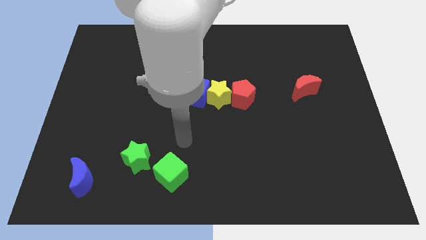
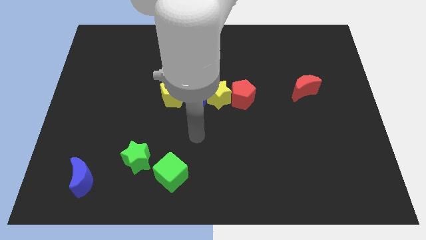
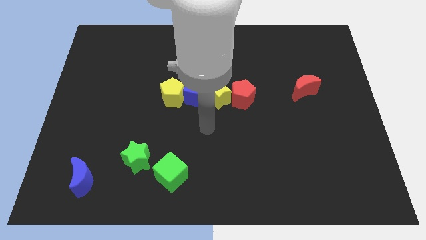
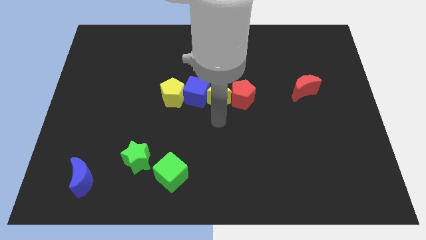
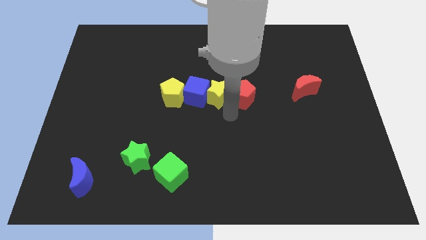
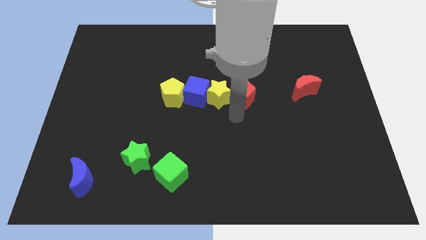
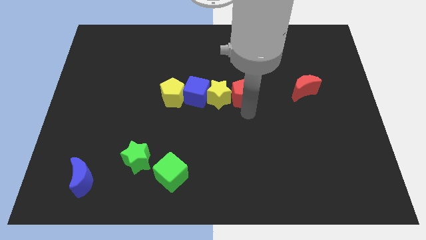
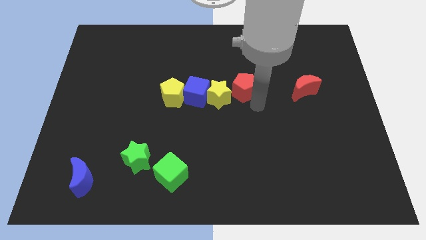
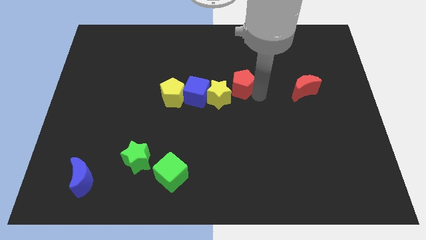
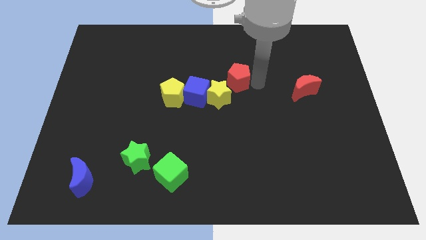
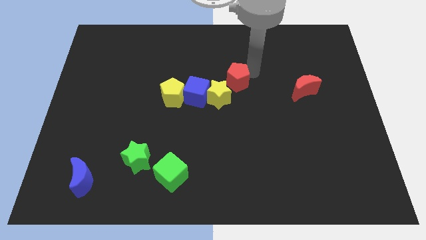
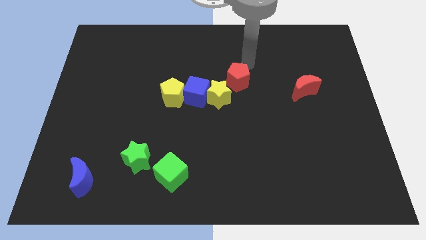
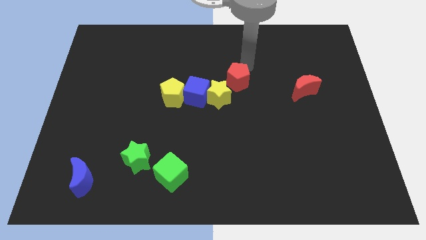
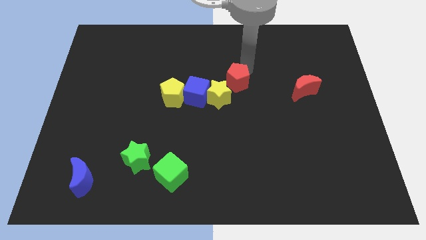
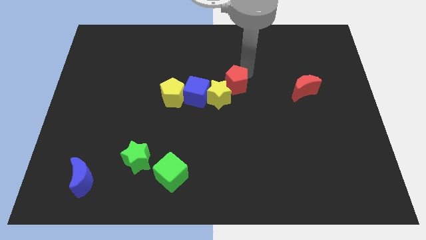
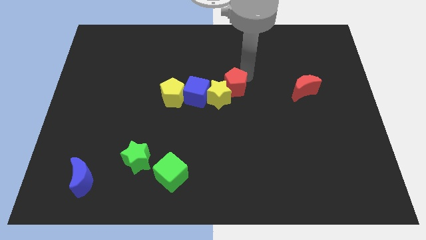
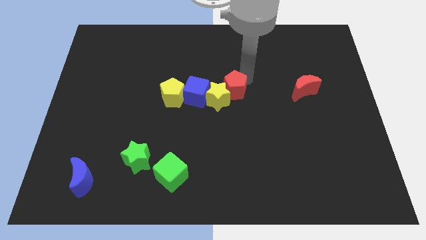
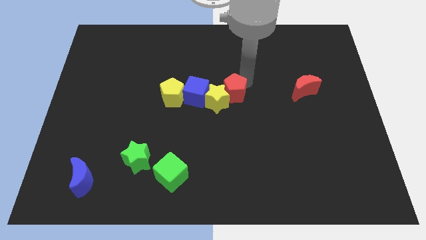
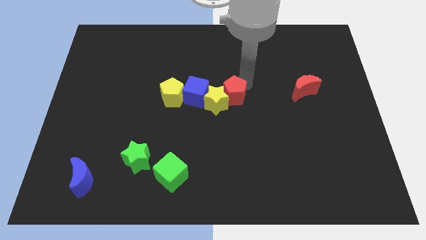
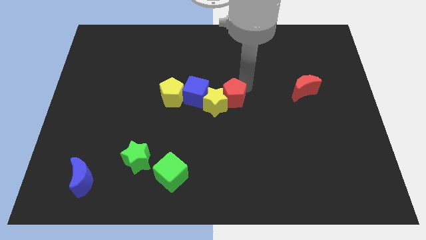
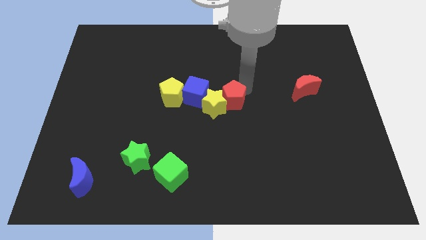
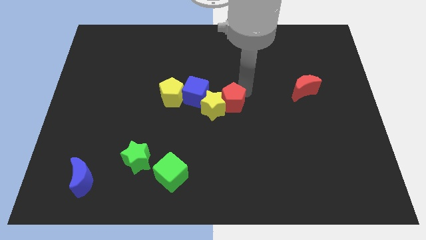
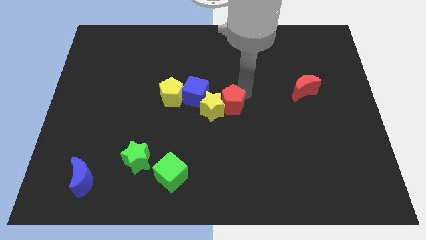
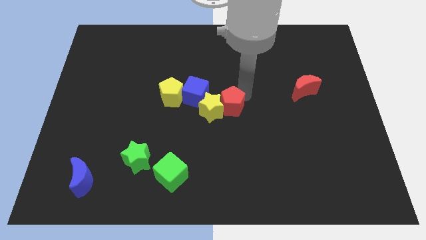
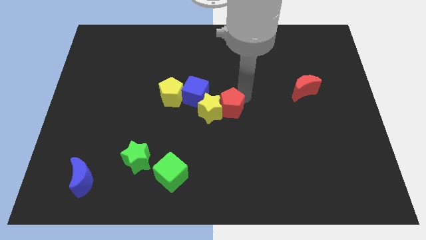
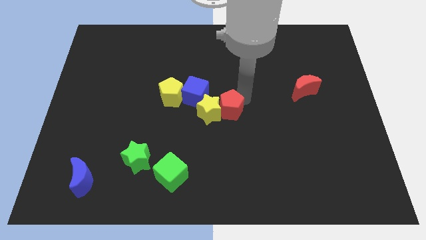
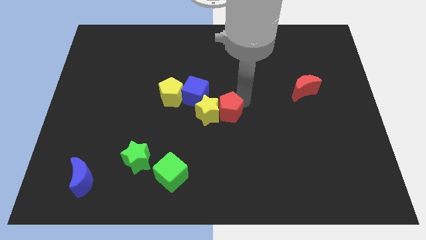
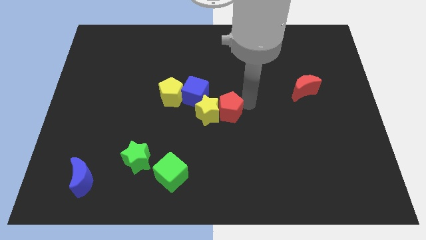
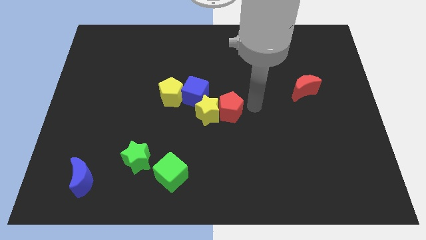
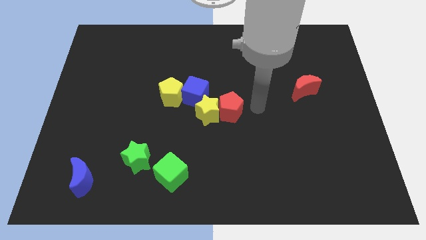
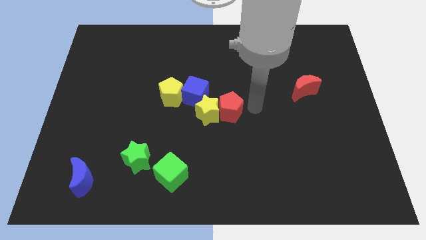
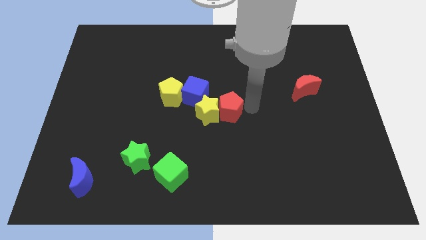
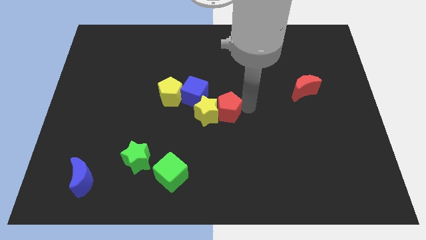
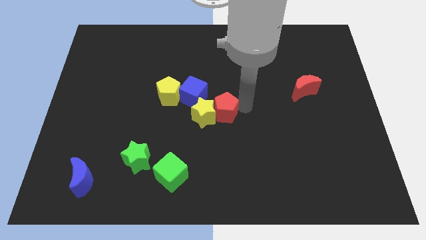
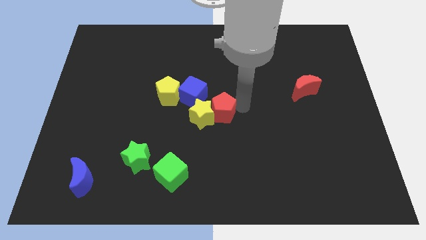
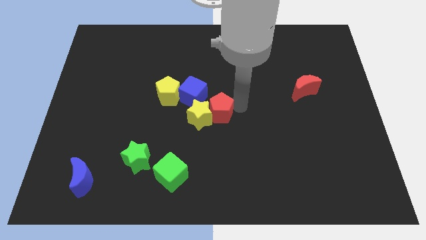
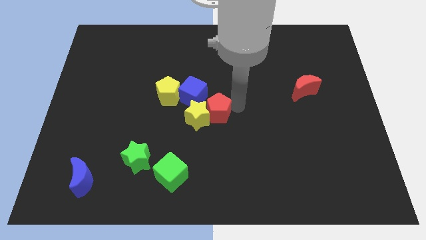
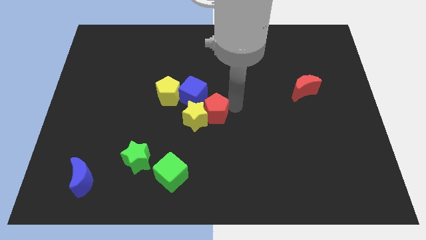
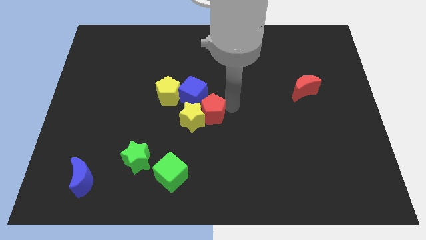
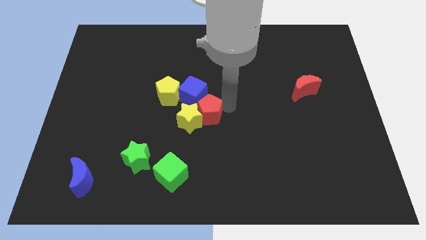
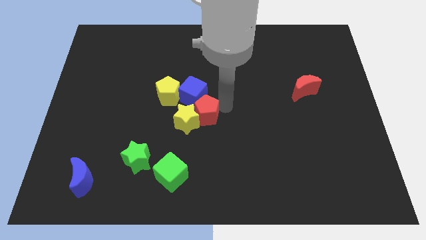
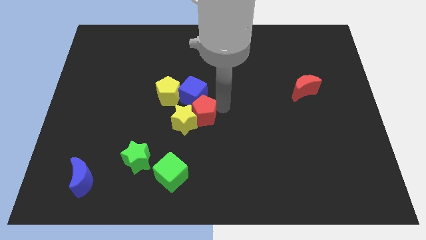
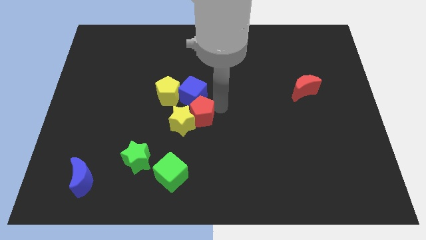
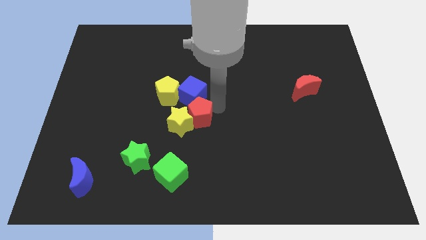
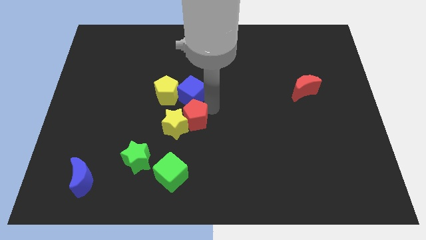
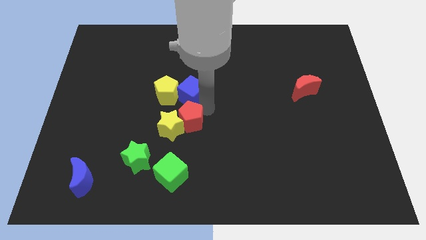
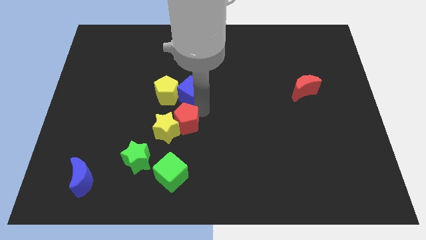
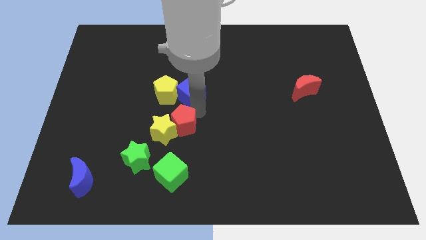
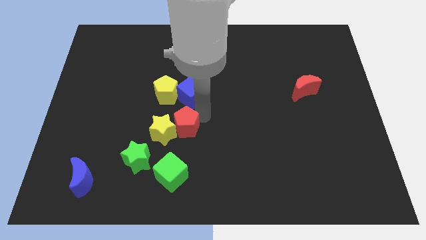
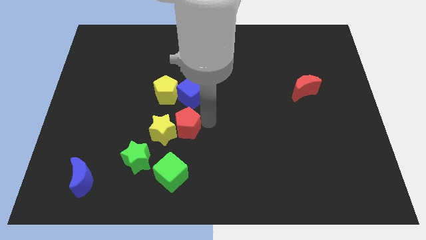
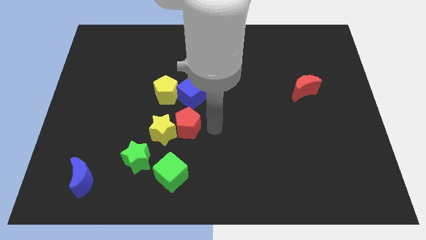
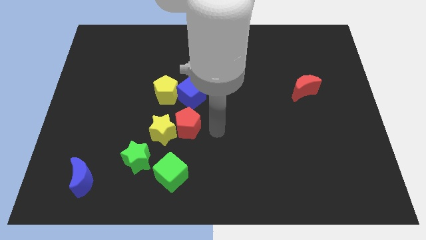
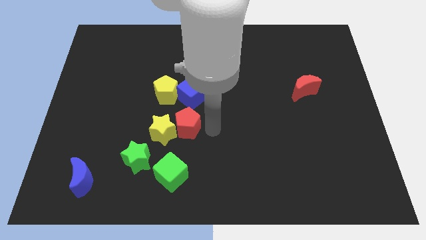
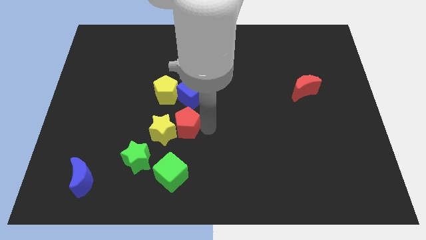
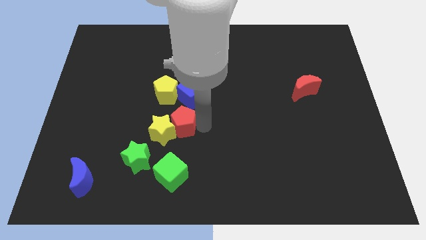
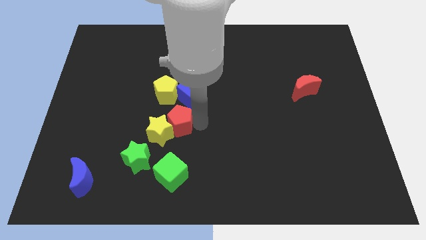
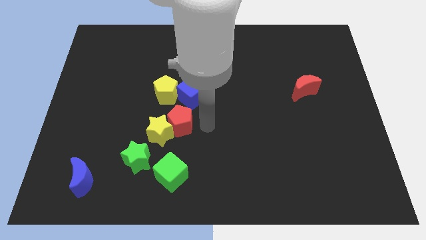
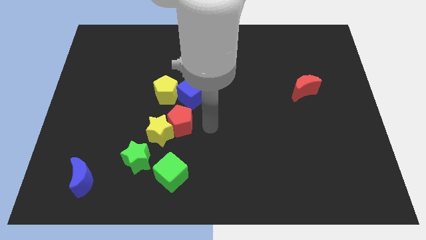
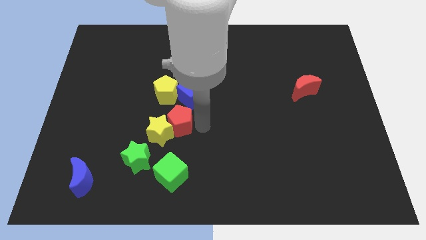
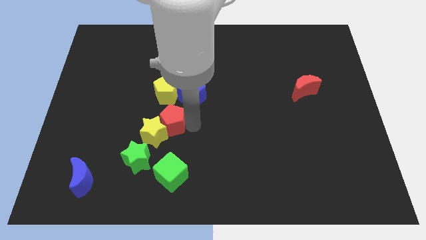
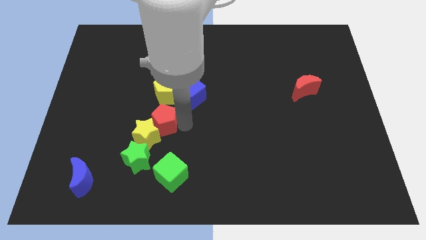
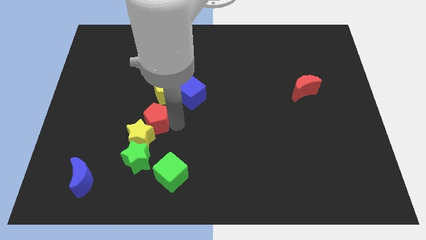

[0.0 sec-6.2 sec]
push the red pentagon to the top side of the green star

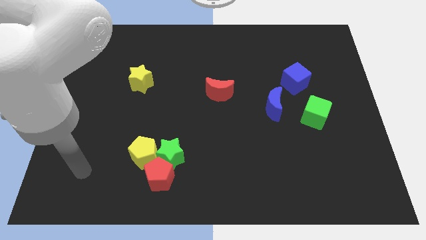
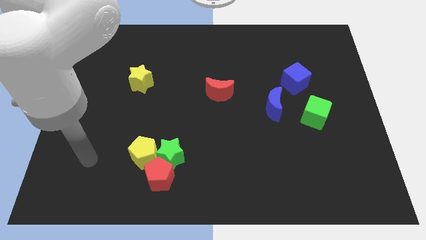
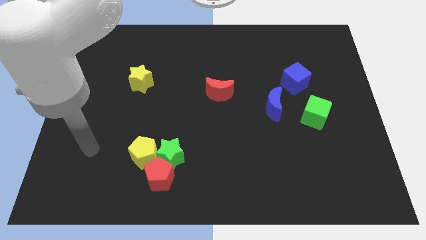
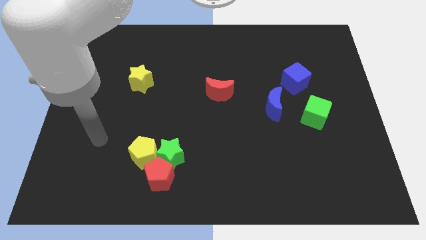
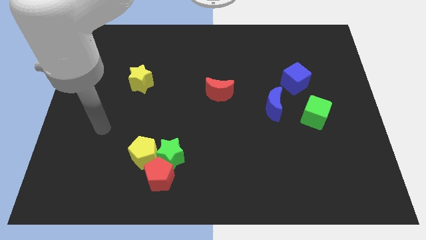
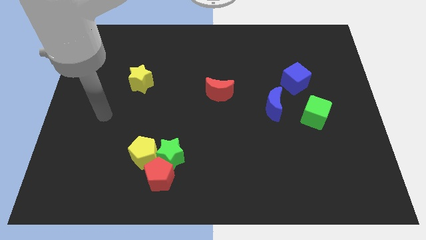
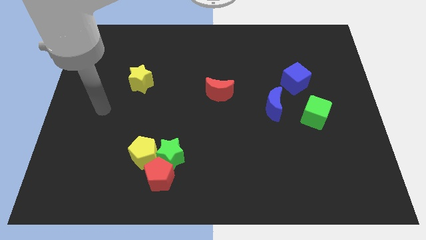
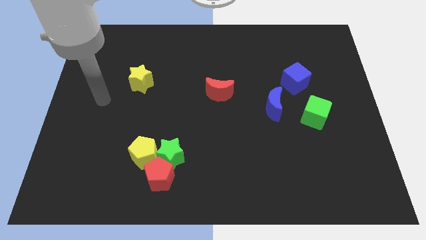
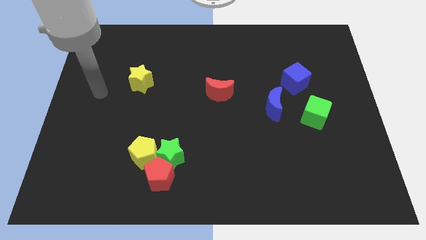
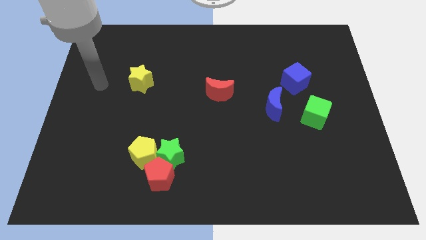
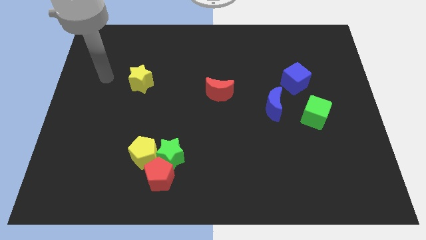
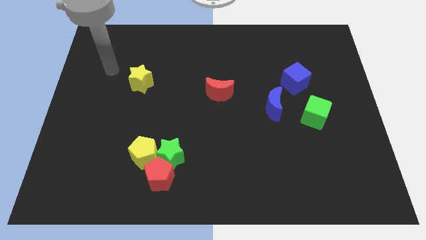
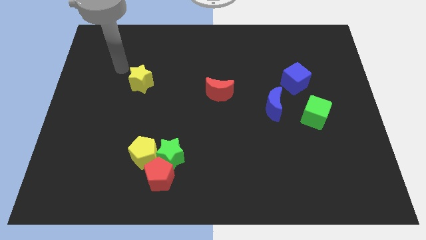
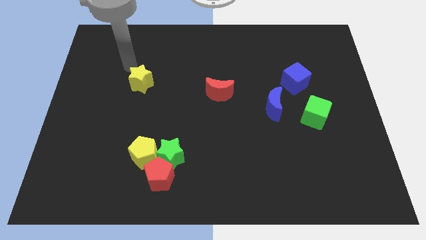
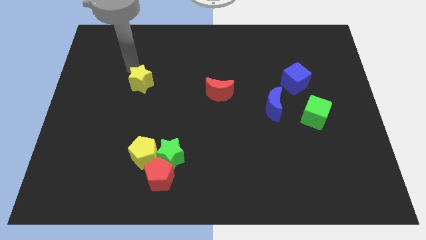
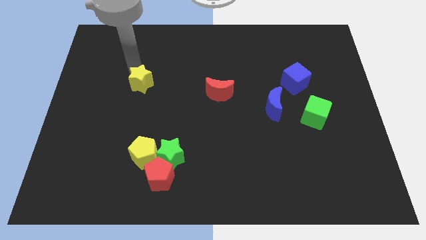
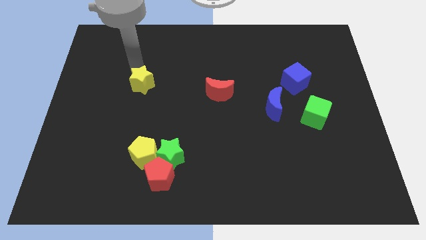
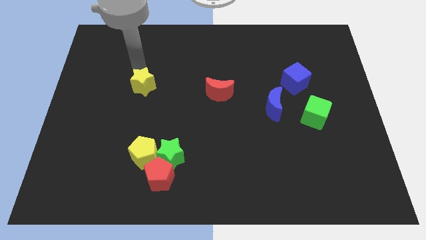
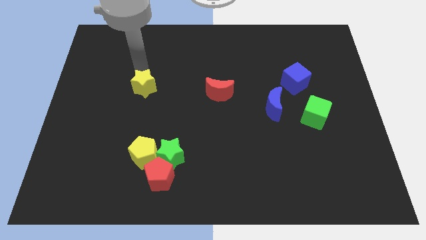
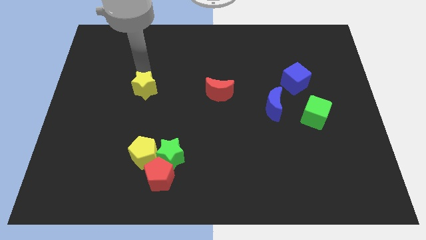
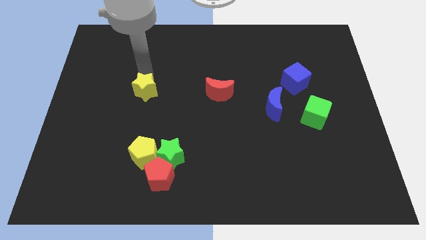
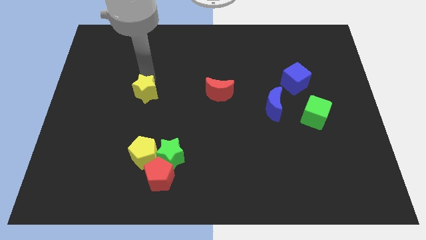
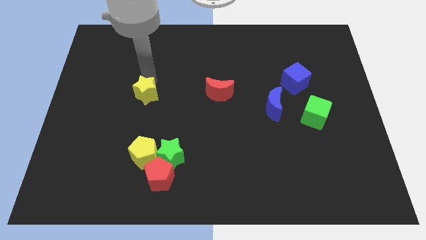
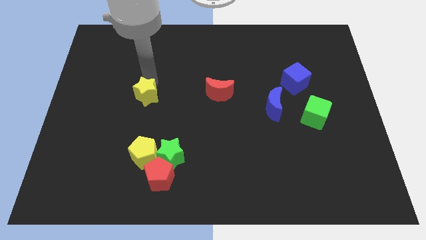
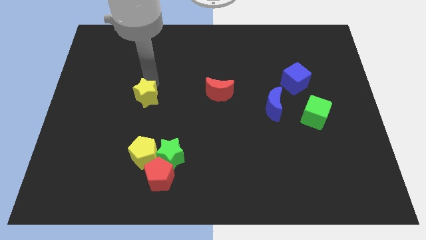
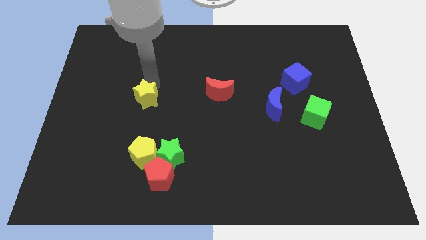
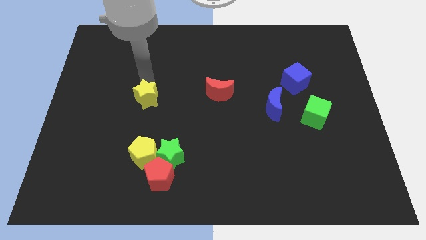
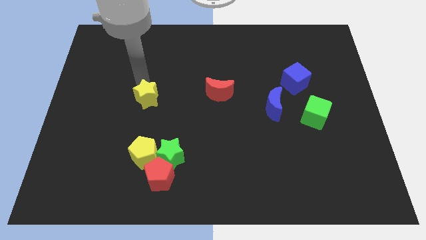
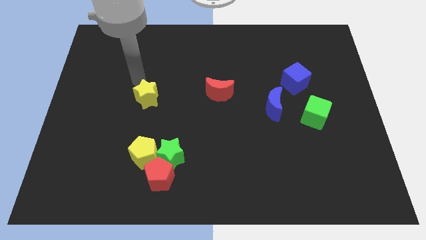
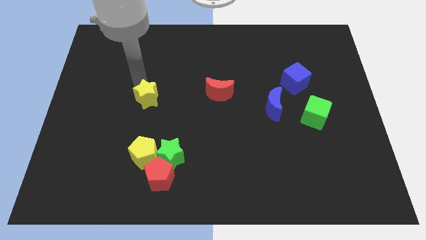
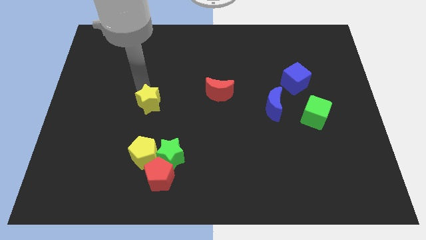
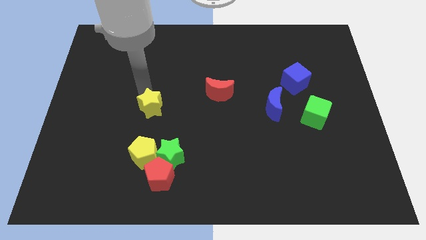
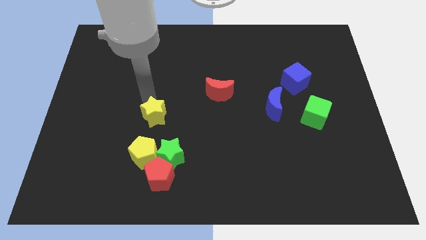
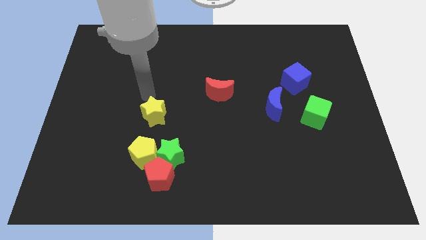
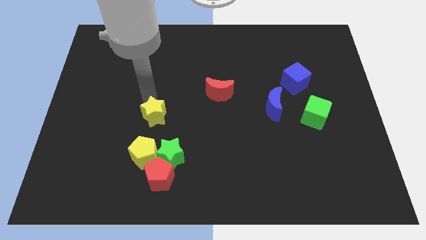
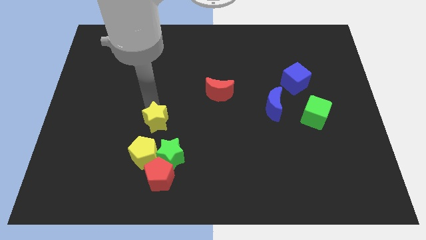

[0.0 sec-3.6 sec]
move the yellow star above the red pentagon
